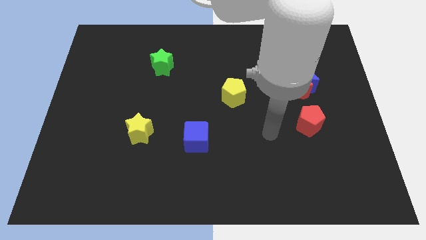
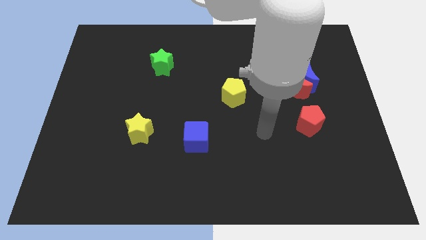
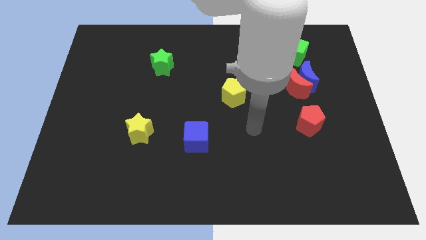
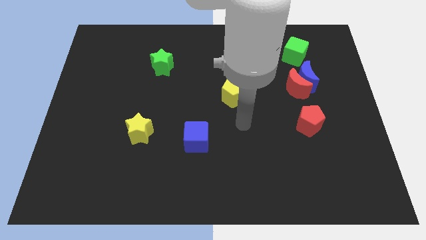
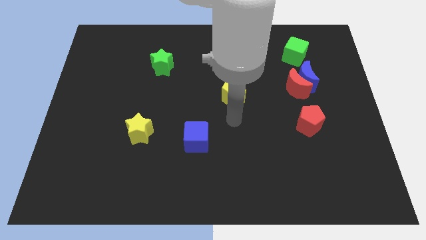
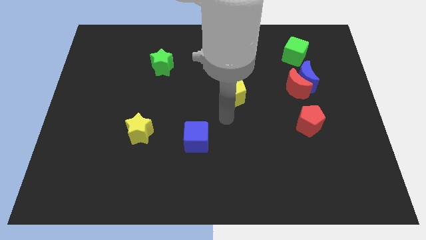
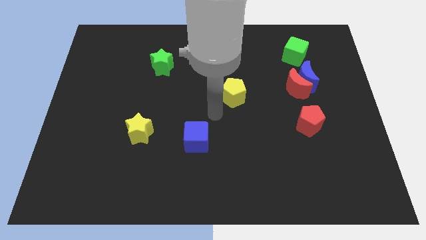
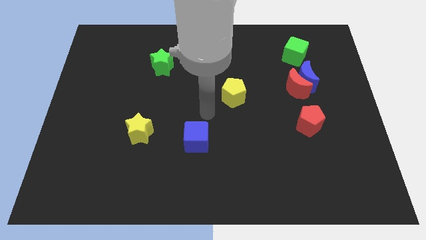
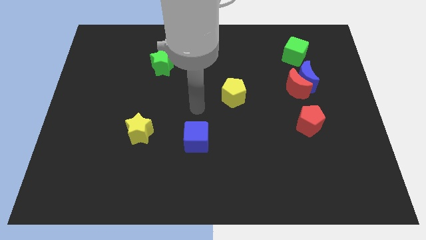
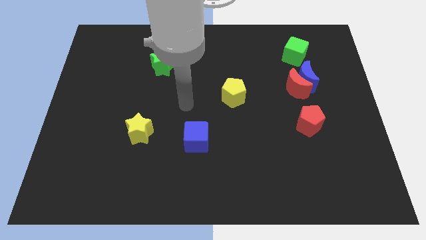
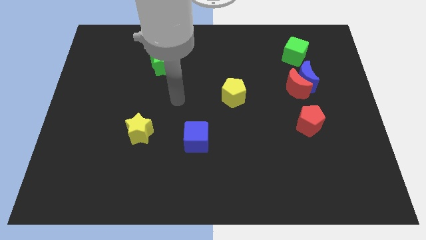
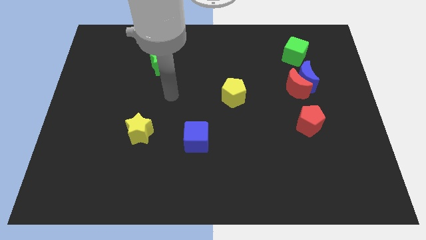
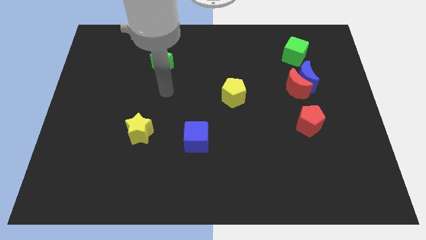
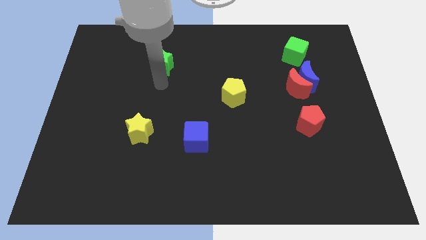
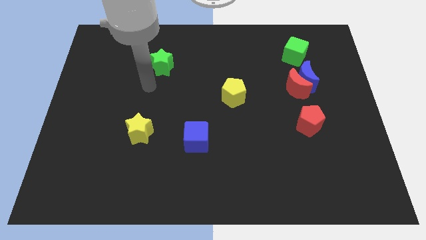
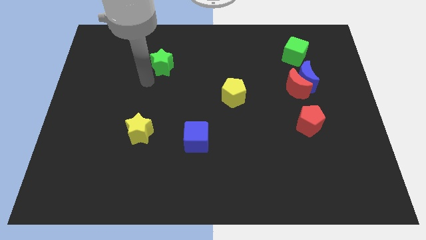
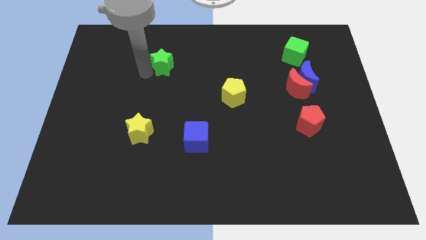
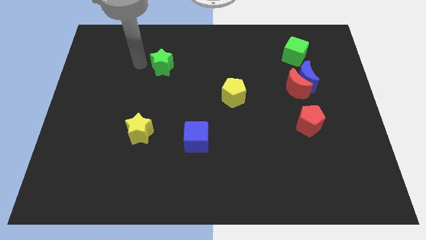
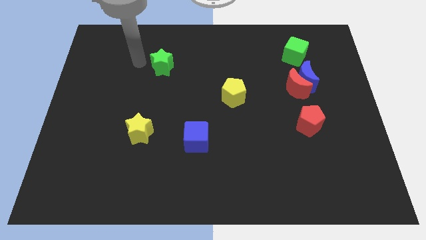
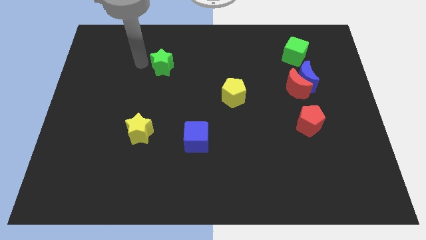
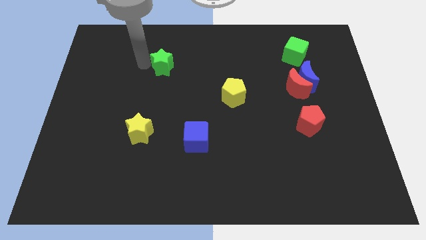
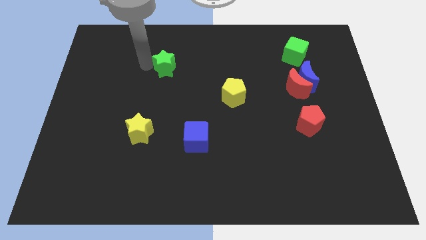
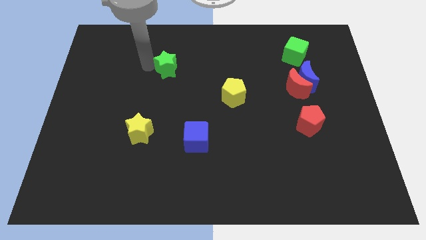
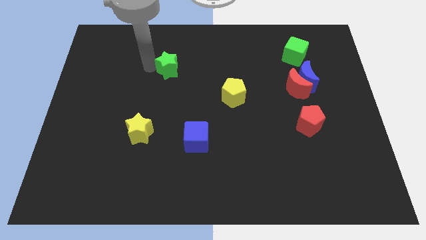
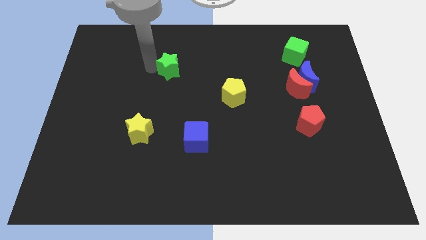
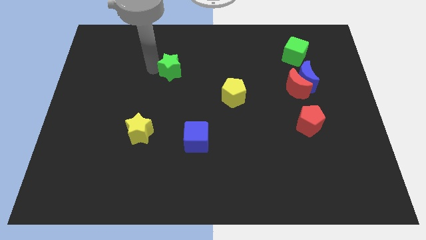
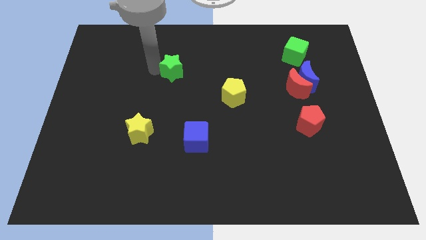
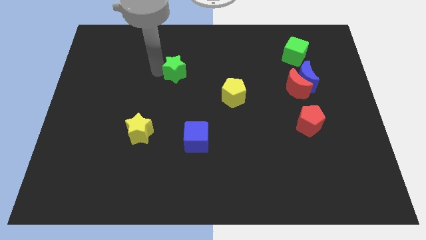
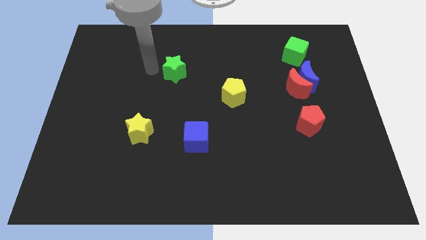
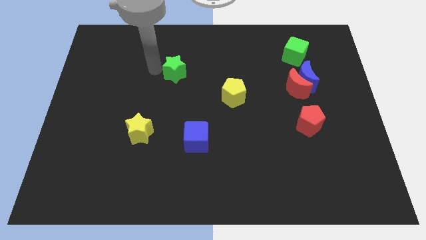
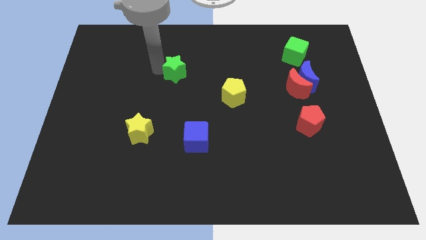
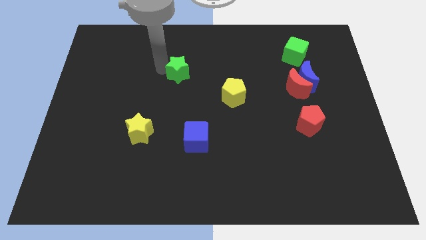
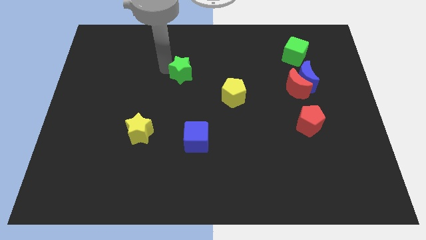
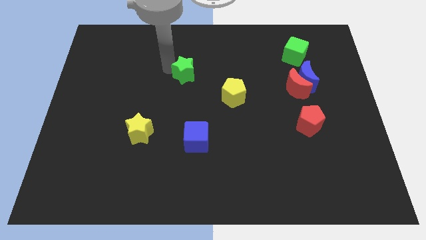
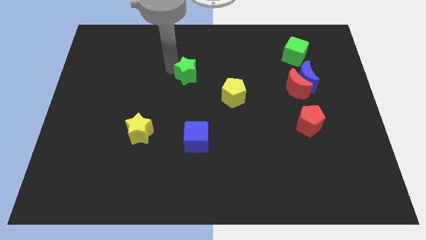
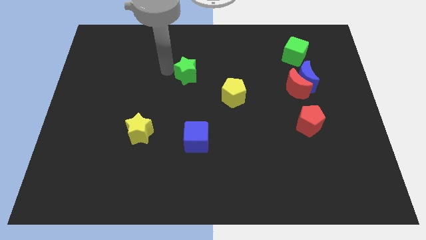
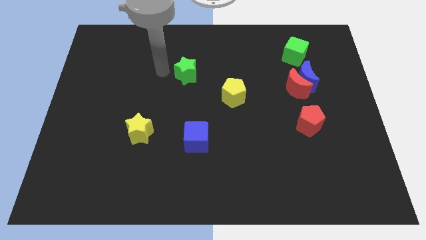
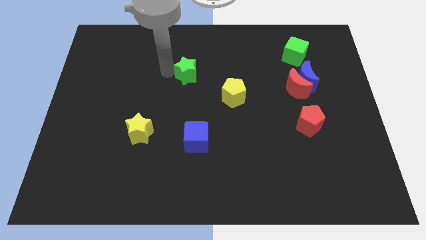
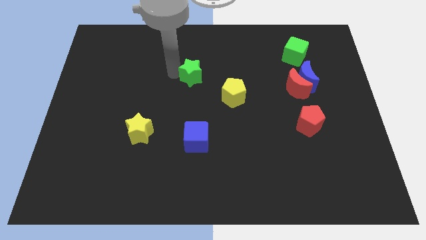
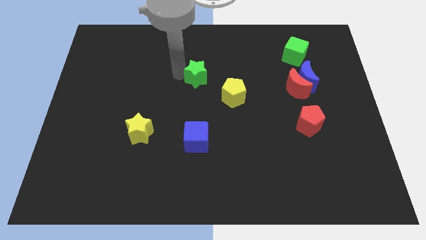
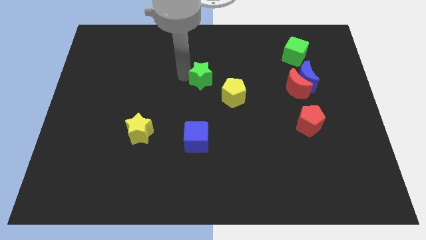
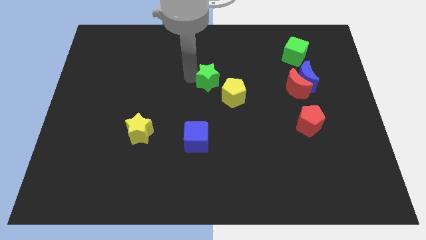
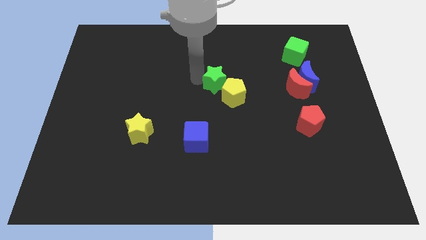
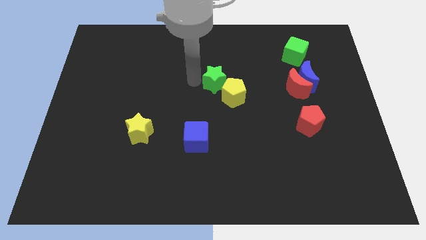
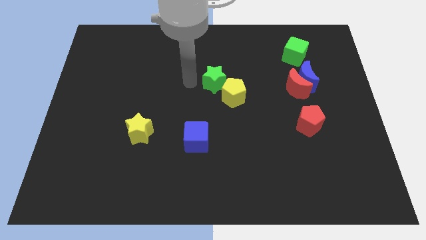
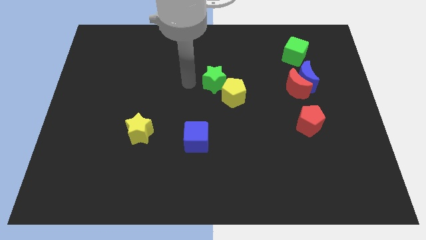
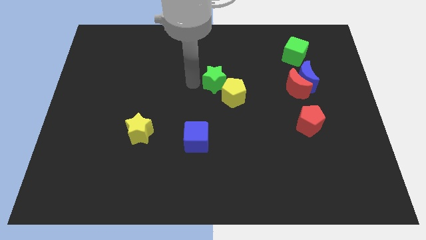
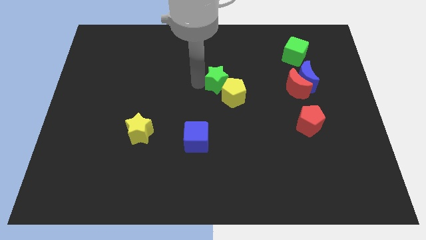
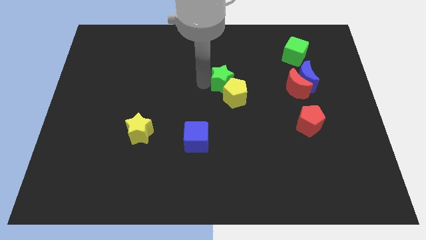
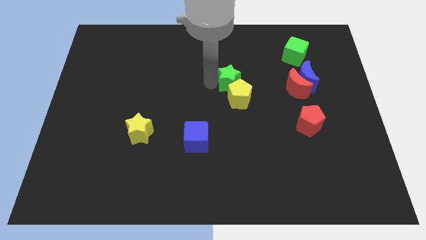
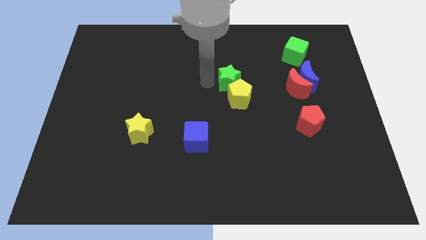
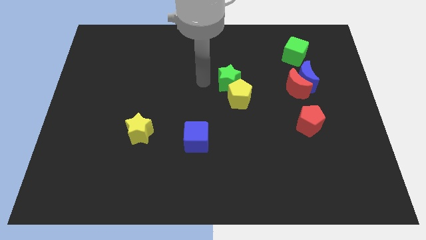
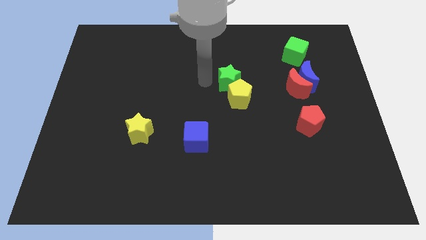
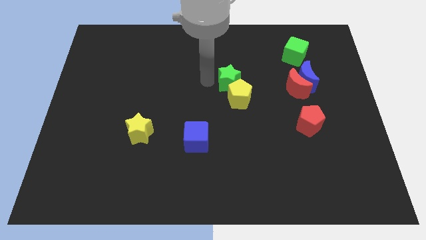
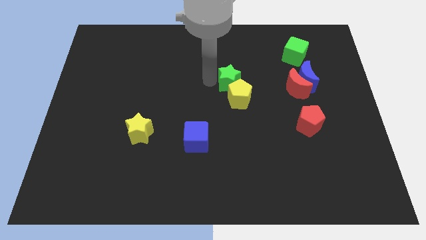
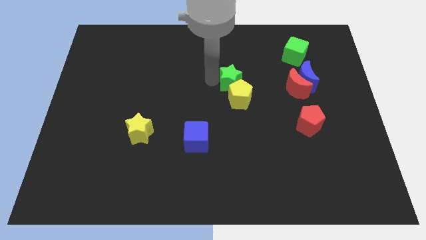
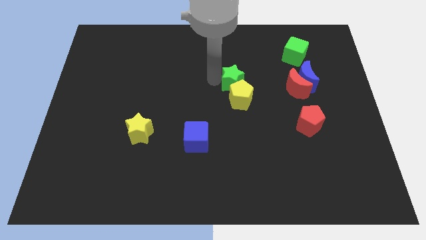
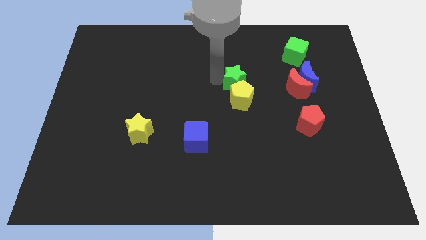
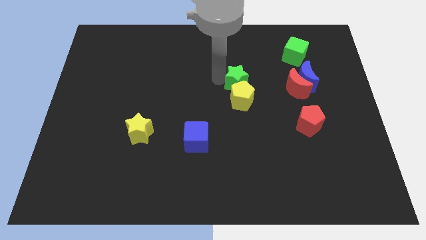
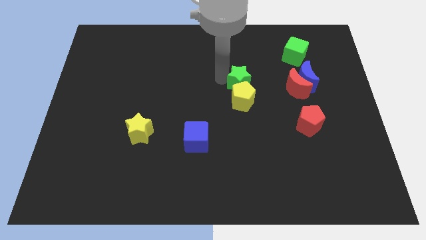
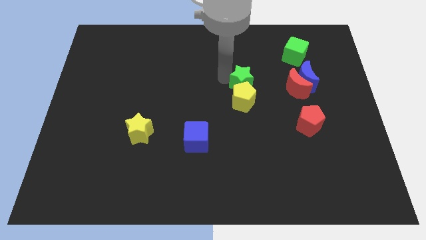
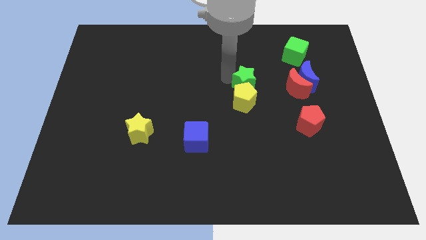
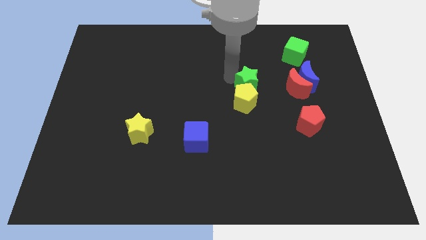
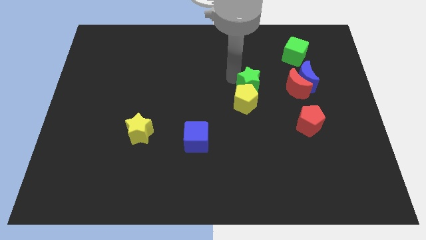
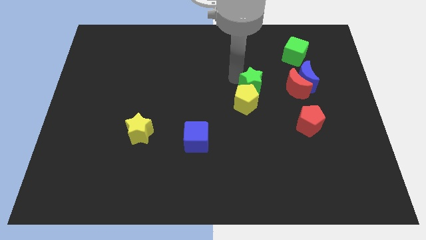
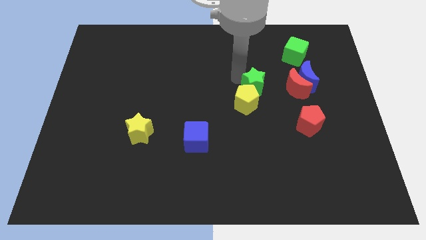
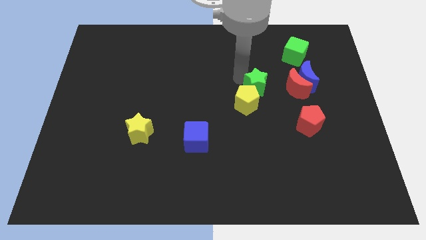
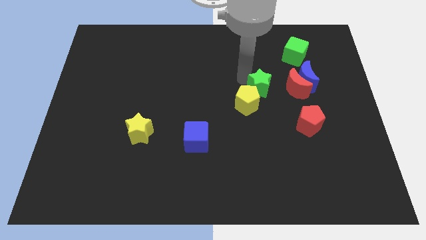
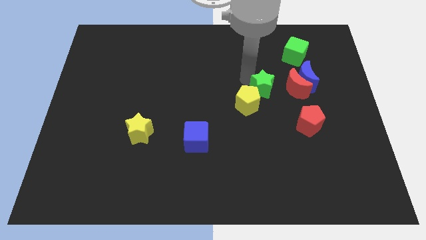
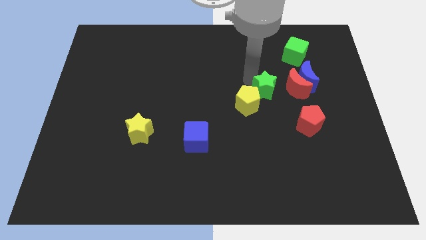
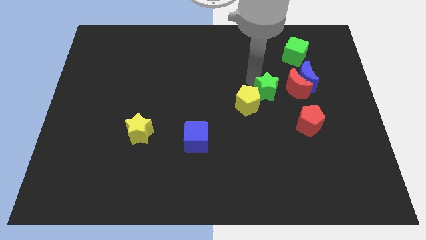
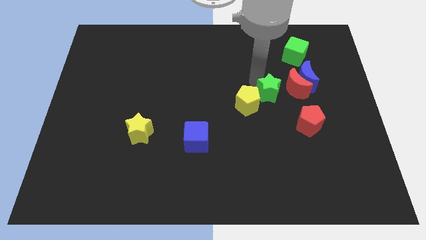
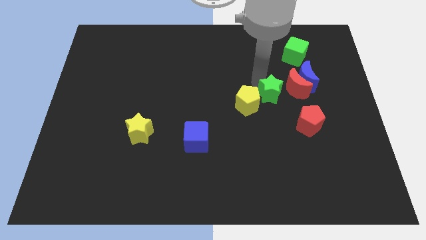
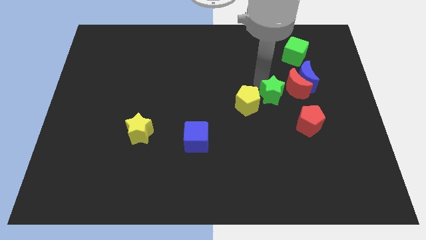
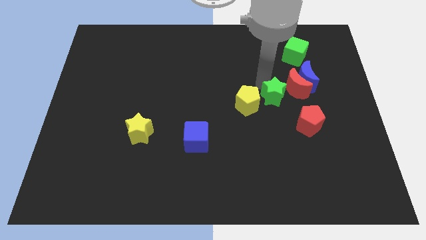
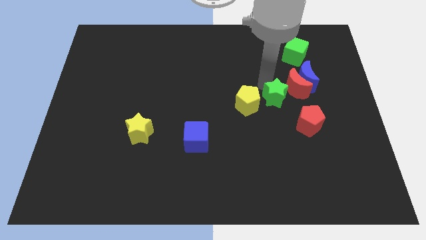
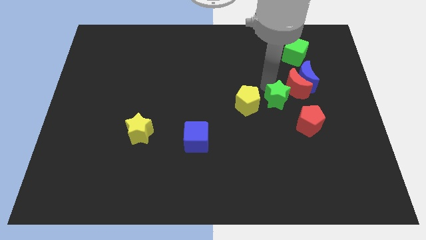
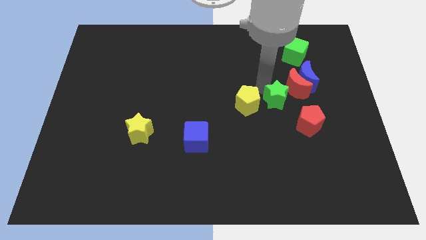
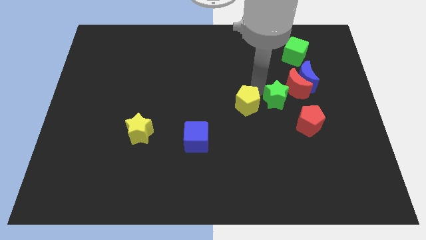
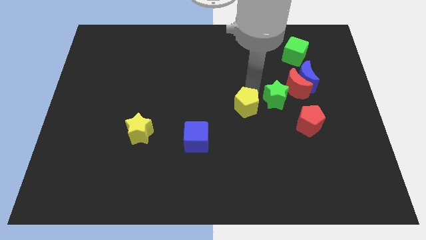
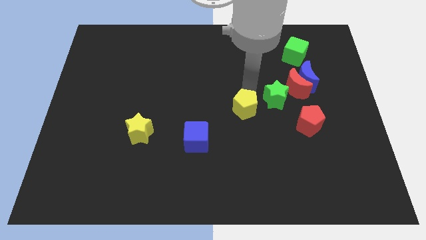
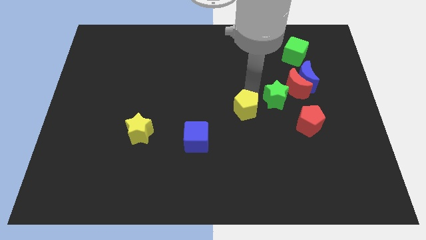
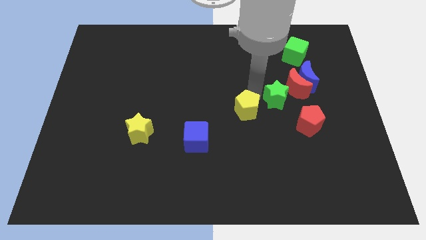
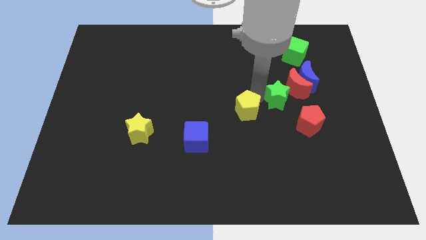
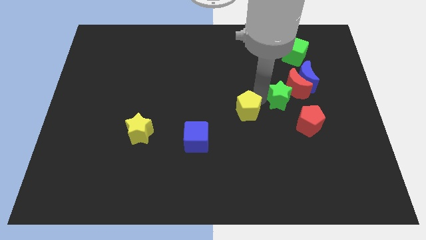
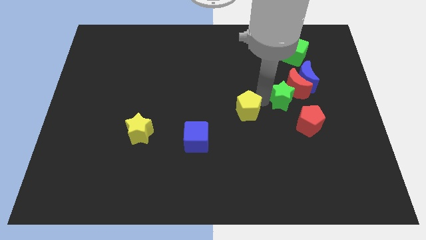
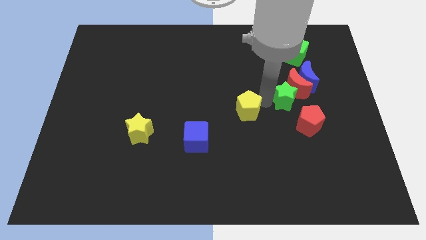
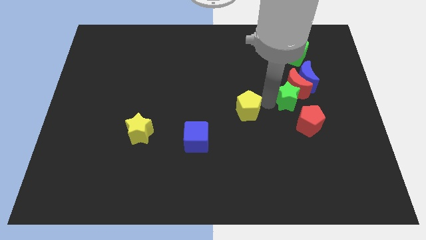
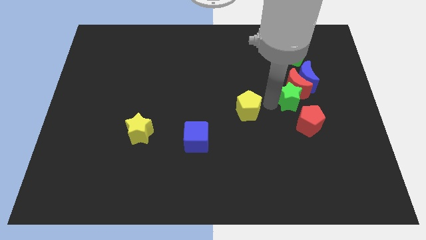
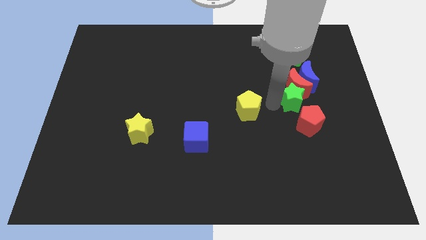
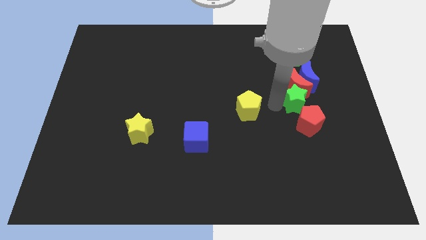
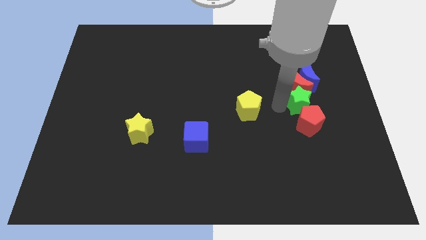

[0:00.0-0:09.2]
push the green star diagonally up and to the right of the red pentagon
